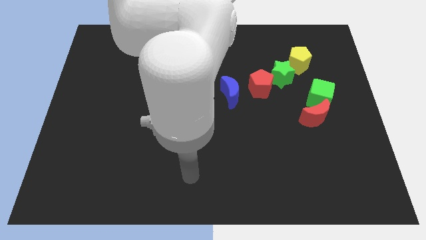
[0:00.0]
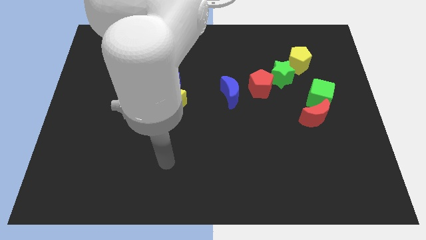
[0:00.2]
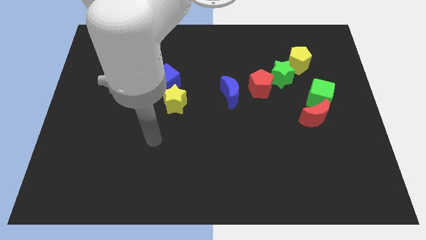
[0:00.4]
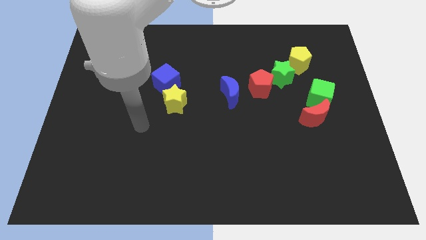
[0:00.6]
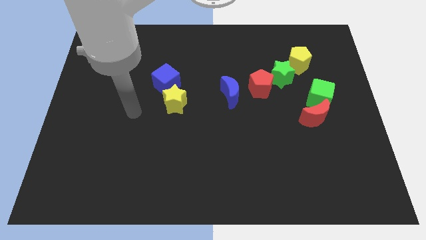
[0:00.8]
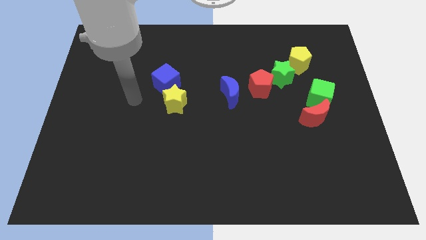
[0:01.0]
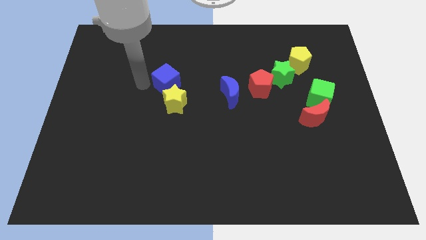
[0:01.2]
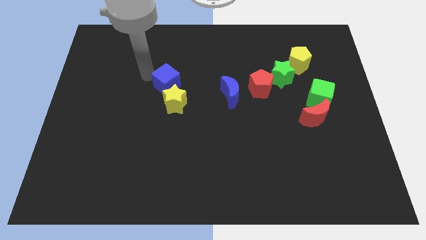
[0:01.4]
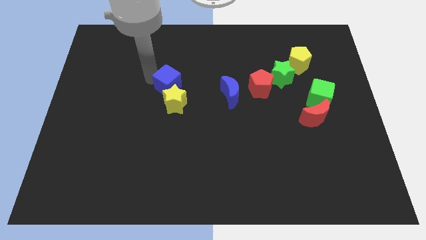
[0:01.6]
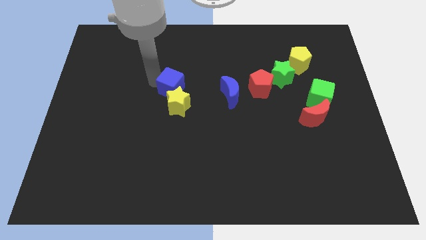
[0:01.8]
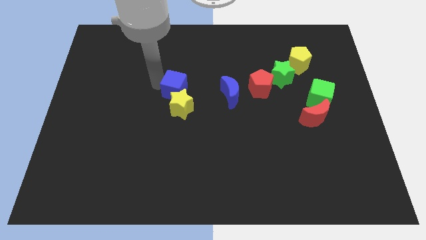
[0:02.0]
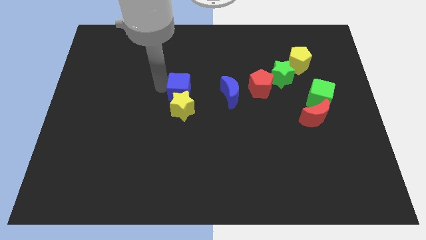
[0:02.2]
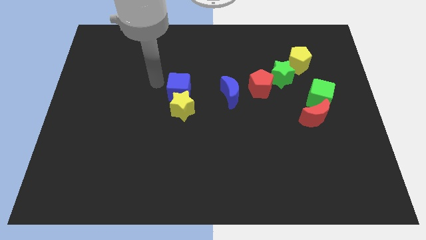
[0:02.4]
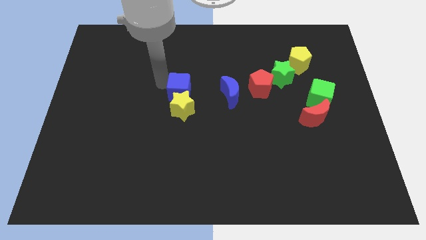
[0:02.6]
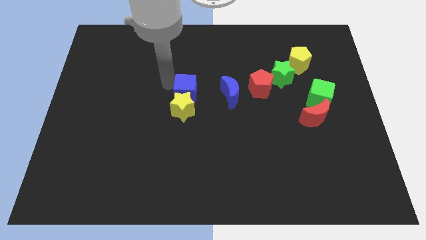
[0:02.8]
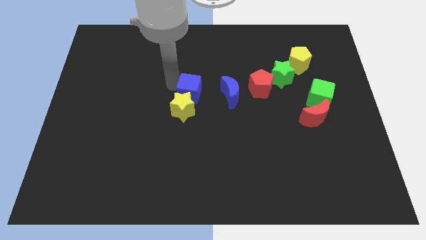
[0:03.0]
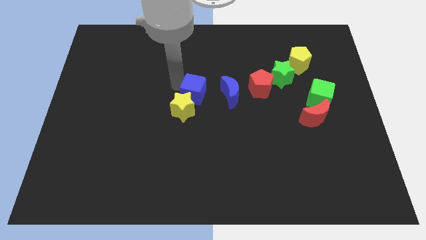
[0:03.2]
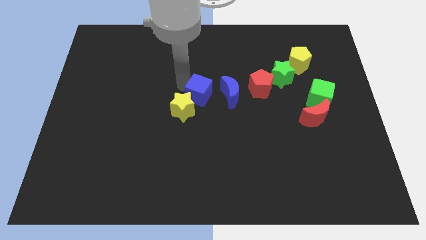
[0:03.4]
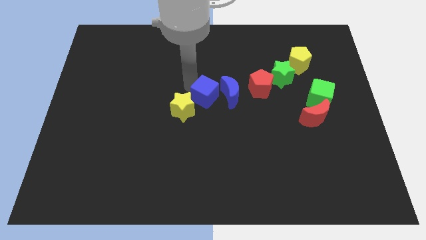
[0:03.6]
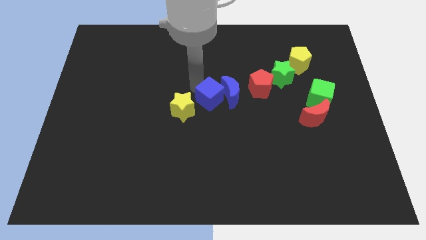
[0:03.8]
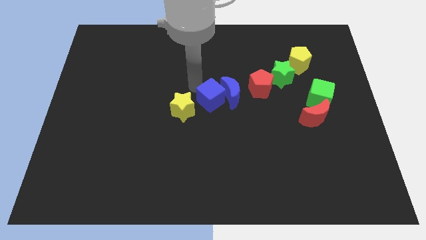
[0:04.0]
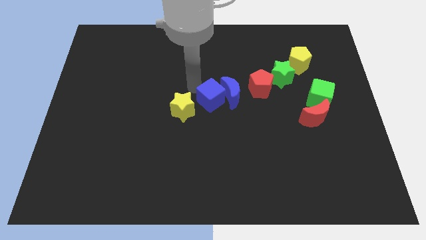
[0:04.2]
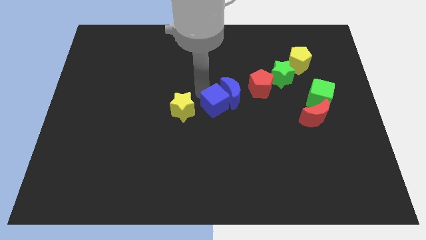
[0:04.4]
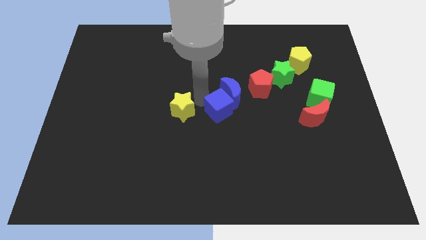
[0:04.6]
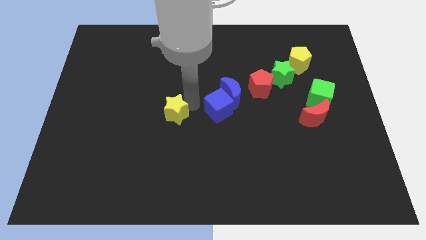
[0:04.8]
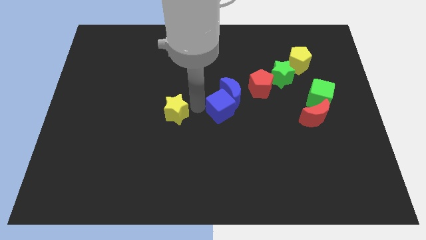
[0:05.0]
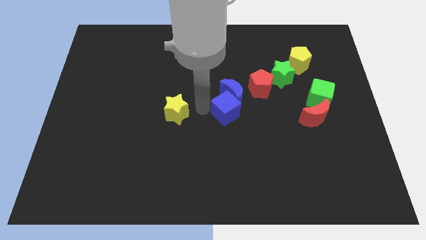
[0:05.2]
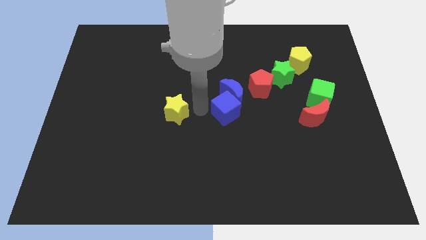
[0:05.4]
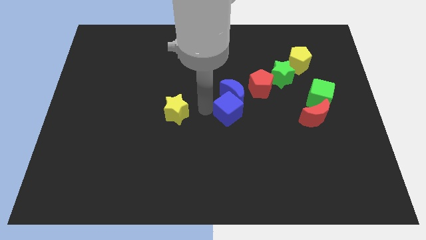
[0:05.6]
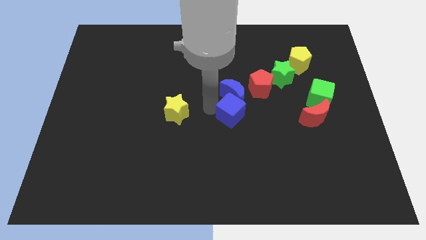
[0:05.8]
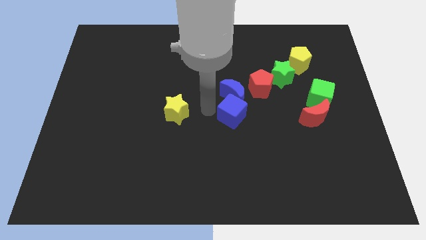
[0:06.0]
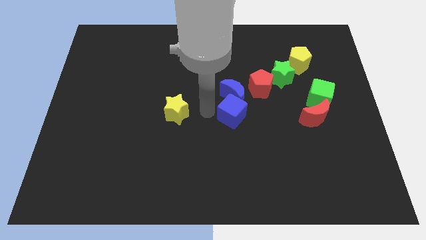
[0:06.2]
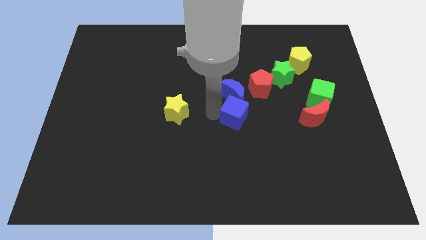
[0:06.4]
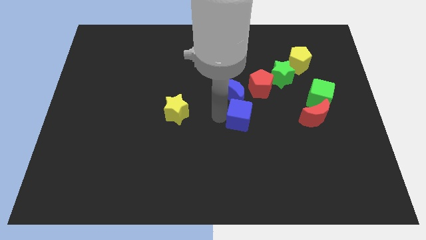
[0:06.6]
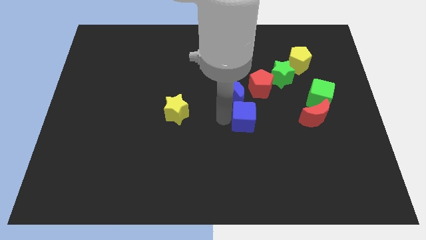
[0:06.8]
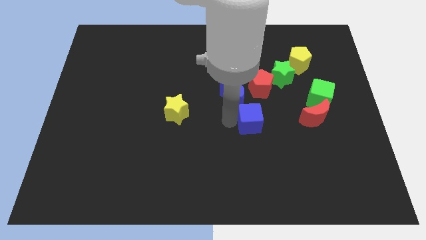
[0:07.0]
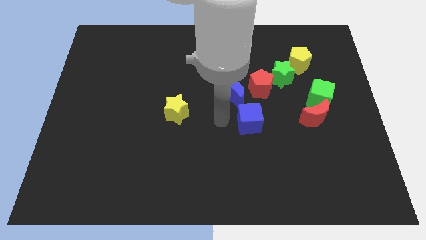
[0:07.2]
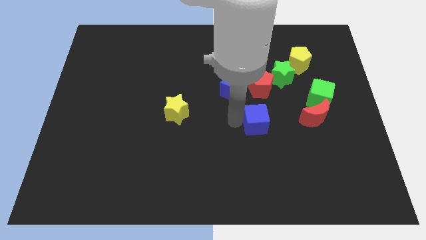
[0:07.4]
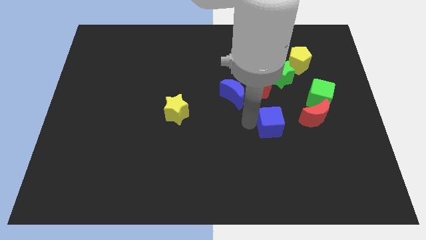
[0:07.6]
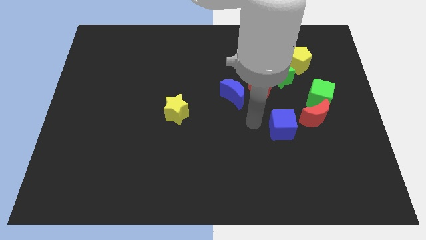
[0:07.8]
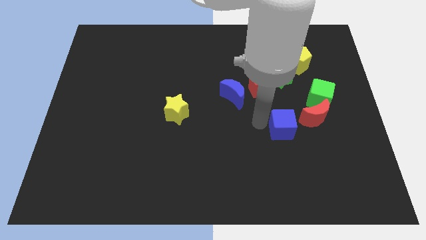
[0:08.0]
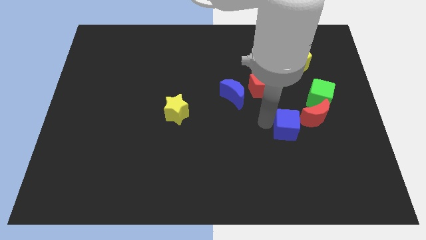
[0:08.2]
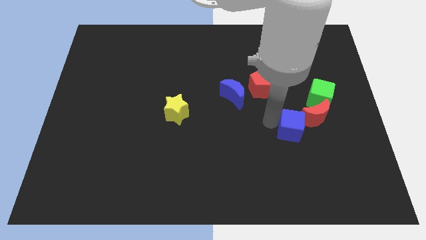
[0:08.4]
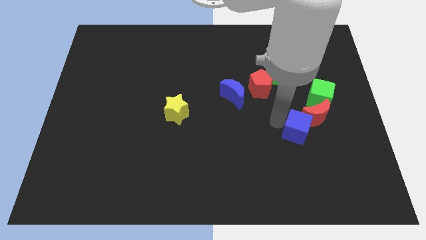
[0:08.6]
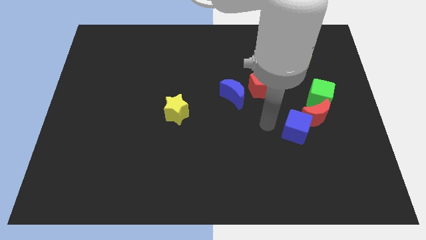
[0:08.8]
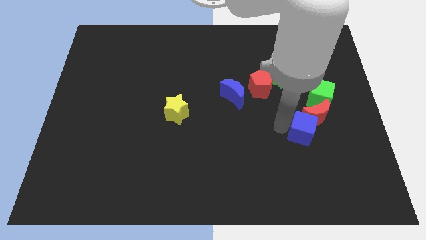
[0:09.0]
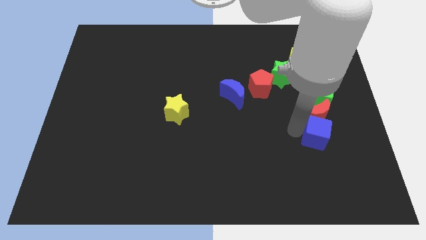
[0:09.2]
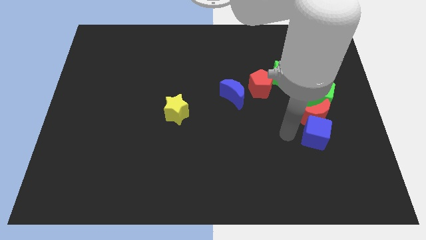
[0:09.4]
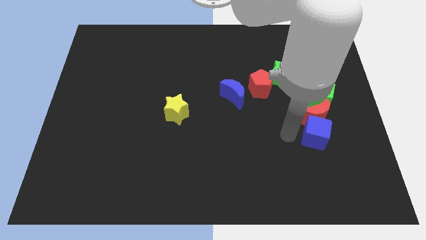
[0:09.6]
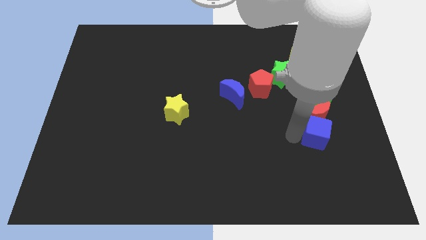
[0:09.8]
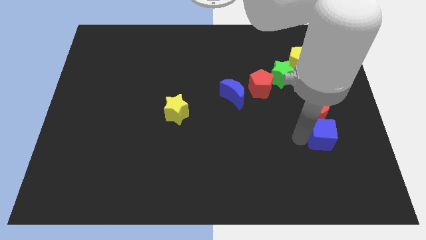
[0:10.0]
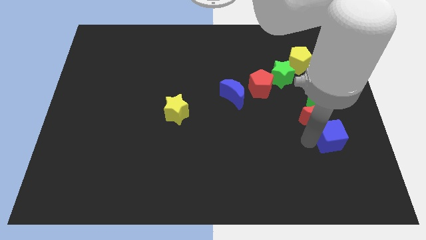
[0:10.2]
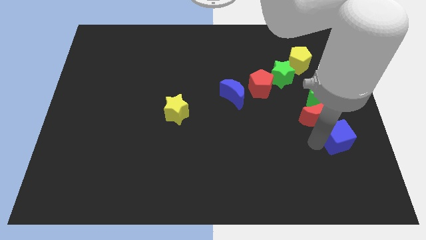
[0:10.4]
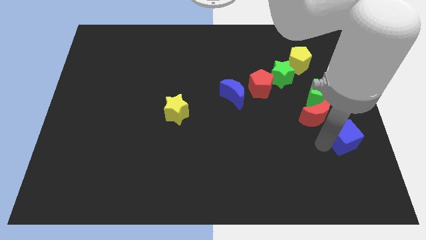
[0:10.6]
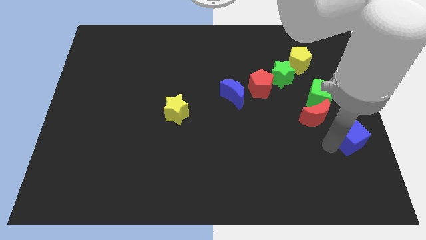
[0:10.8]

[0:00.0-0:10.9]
move the blue cube to the right side

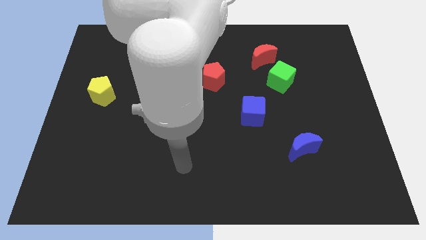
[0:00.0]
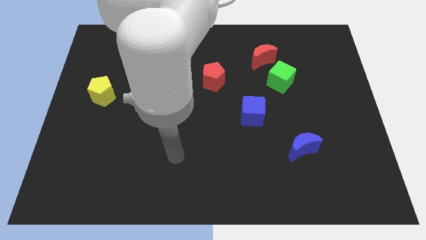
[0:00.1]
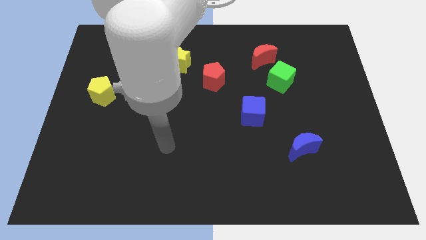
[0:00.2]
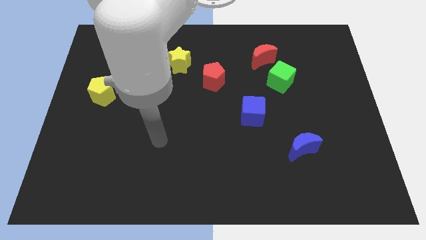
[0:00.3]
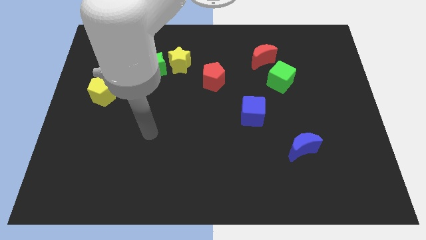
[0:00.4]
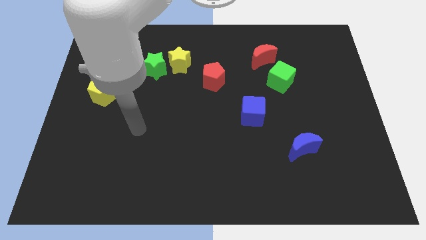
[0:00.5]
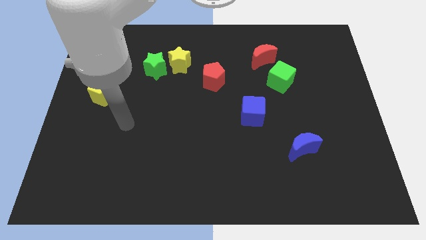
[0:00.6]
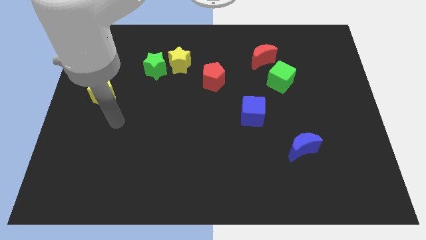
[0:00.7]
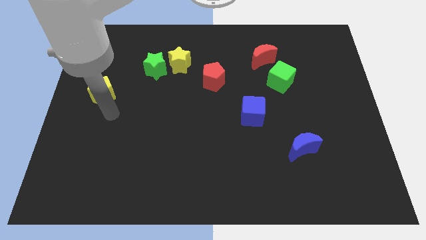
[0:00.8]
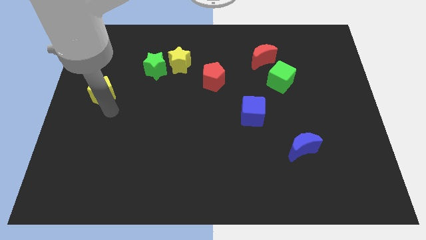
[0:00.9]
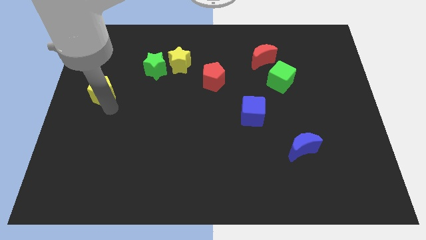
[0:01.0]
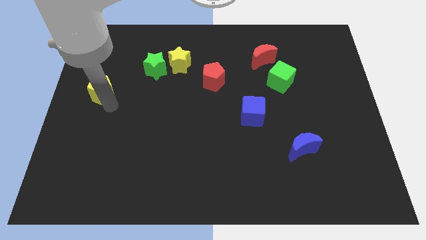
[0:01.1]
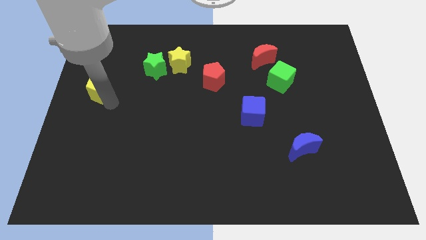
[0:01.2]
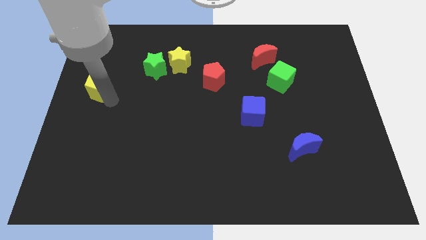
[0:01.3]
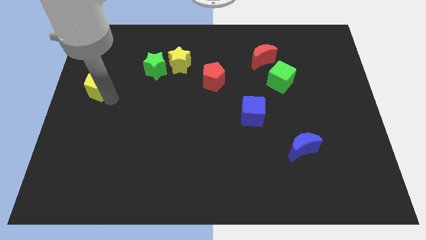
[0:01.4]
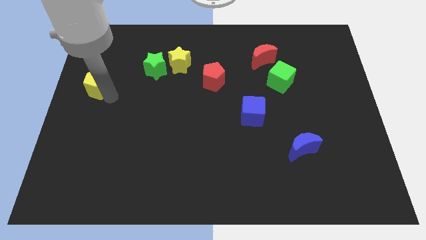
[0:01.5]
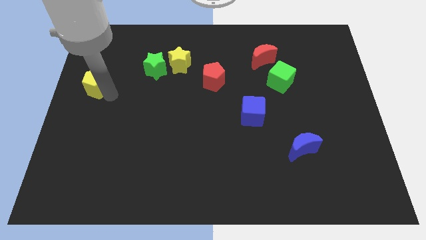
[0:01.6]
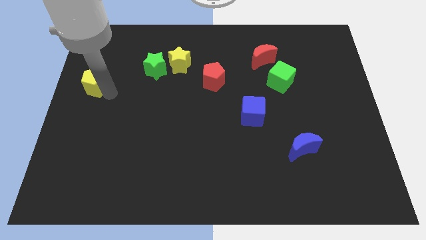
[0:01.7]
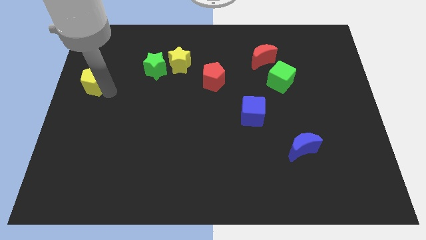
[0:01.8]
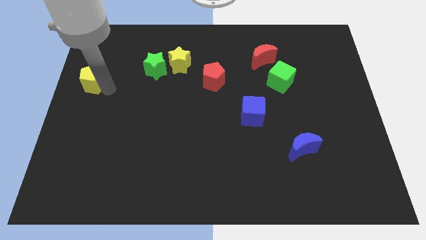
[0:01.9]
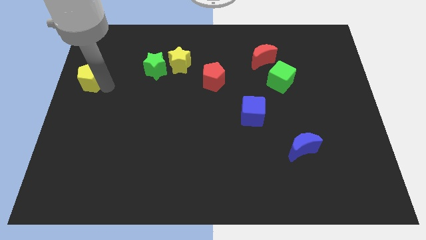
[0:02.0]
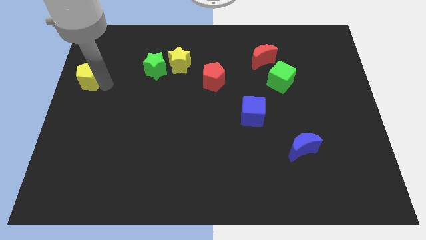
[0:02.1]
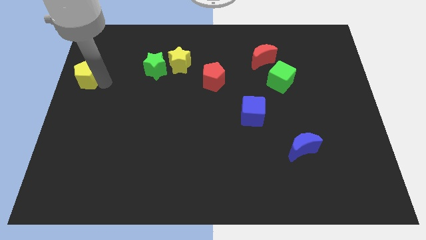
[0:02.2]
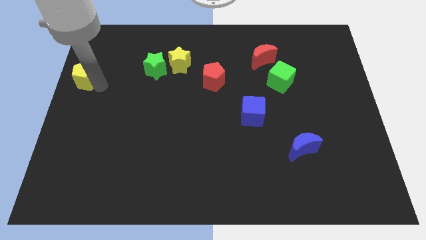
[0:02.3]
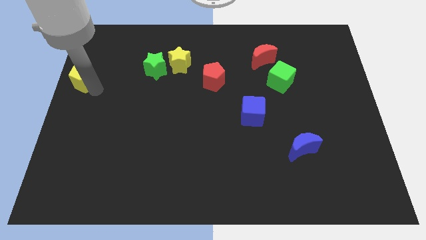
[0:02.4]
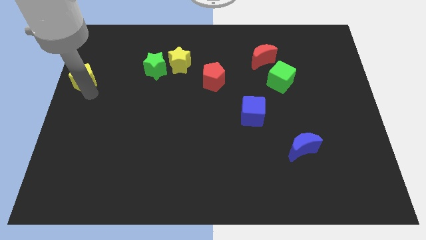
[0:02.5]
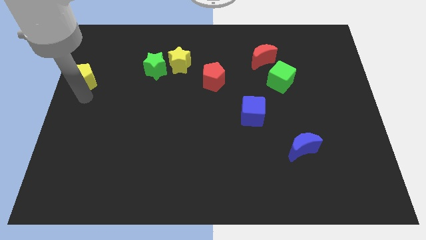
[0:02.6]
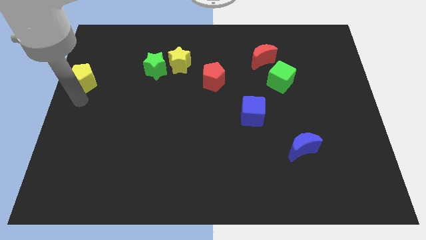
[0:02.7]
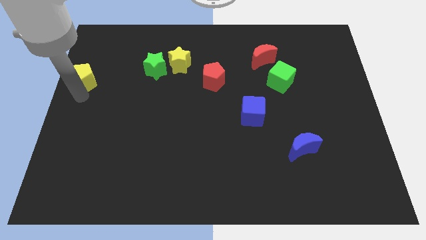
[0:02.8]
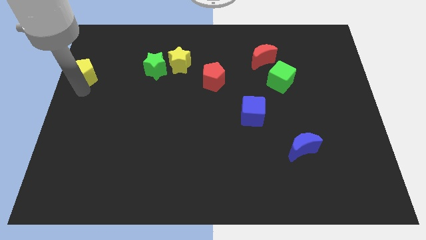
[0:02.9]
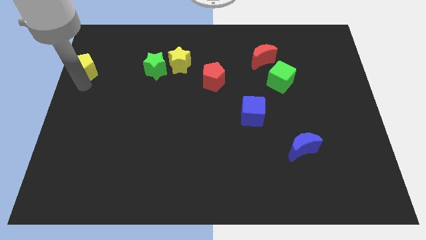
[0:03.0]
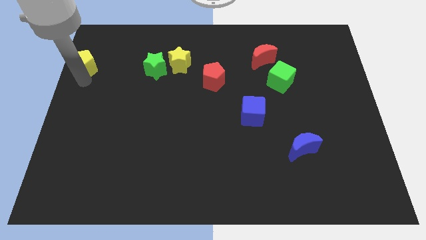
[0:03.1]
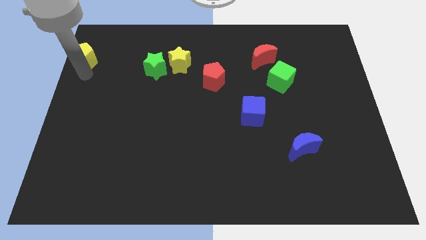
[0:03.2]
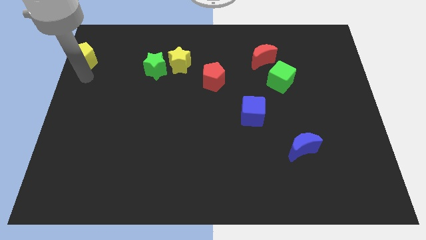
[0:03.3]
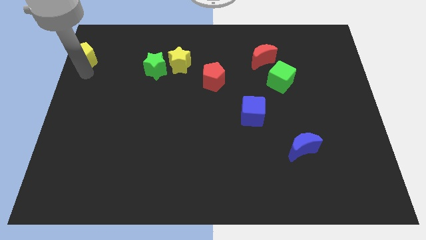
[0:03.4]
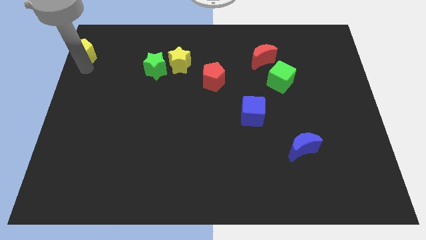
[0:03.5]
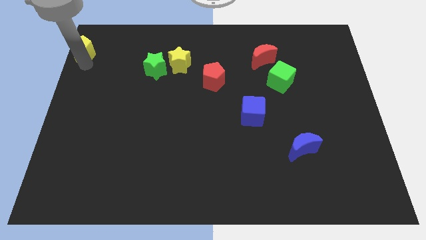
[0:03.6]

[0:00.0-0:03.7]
put the yellow pentagon to the top left of the board
